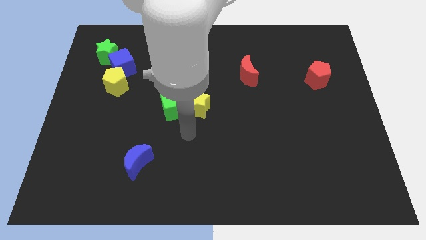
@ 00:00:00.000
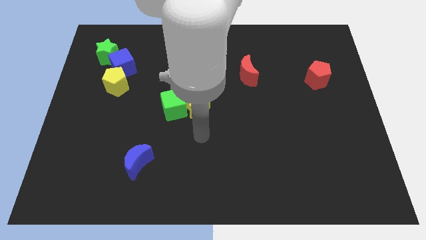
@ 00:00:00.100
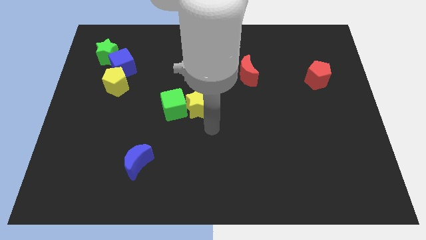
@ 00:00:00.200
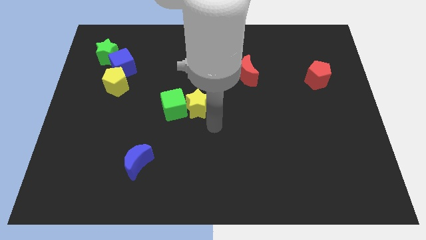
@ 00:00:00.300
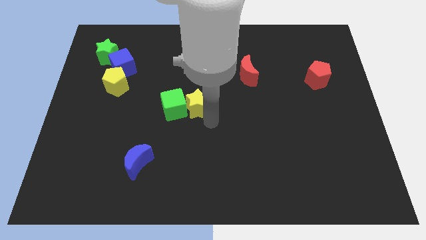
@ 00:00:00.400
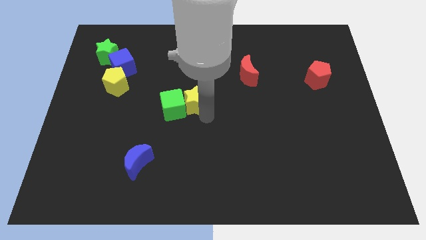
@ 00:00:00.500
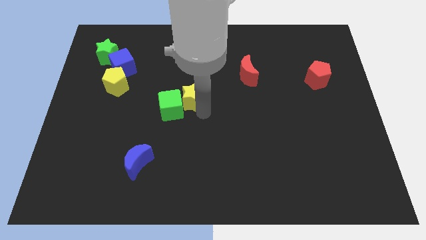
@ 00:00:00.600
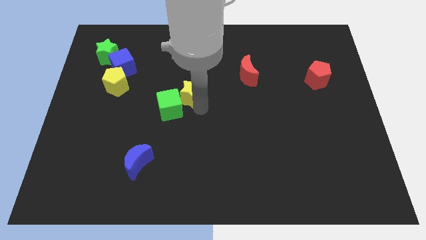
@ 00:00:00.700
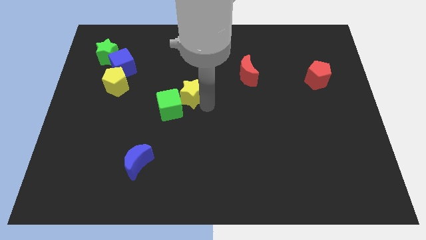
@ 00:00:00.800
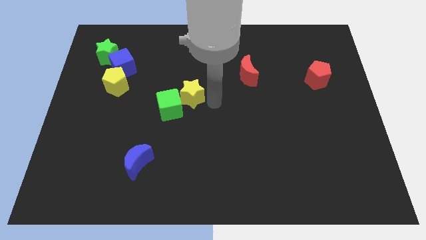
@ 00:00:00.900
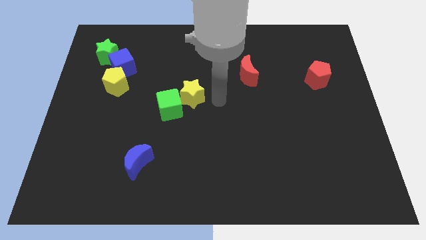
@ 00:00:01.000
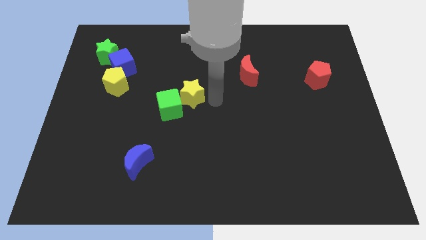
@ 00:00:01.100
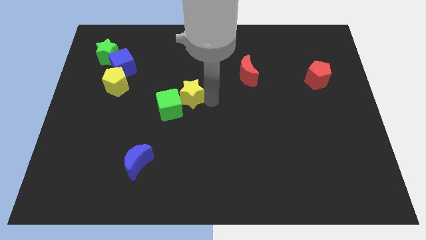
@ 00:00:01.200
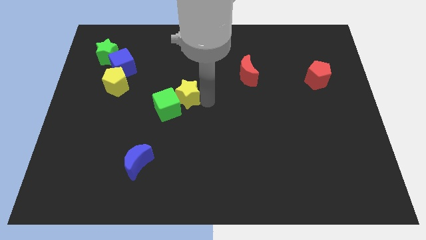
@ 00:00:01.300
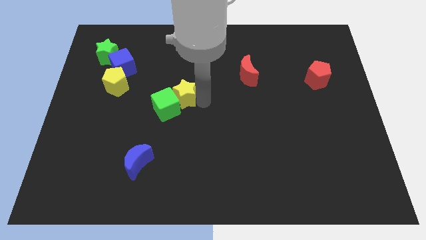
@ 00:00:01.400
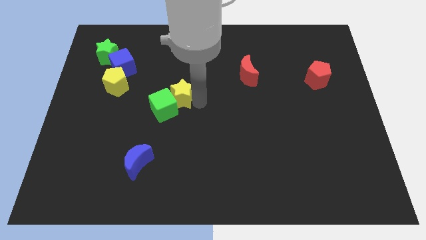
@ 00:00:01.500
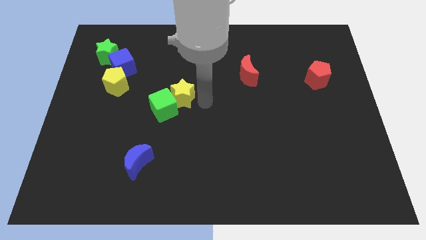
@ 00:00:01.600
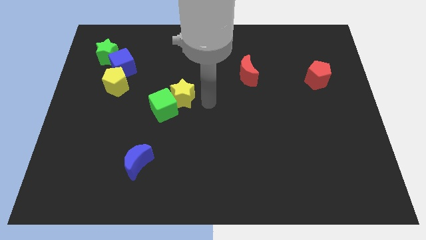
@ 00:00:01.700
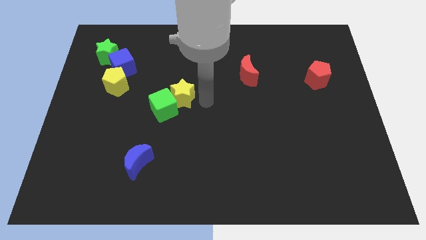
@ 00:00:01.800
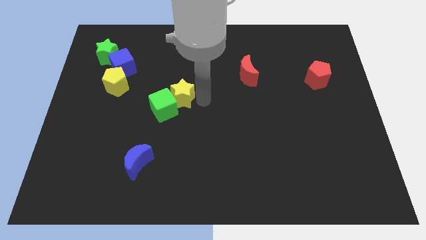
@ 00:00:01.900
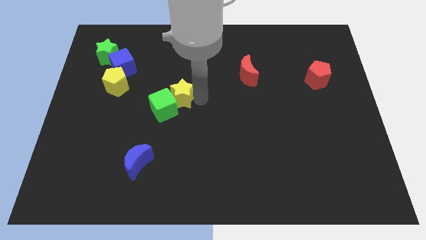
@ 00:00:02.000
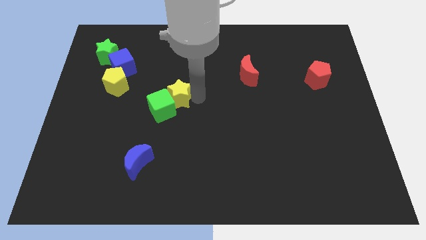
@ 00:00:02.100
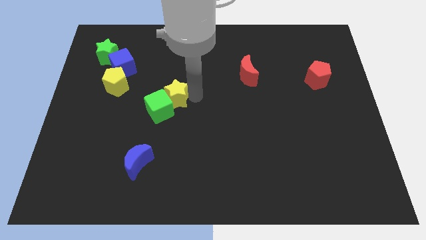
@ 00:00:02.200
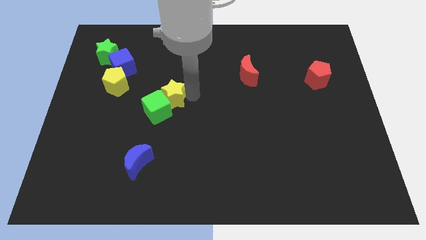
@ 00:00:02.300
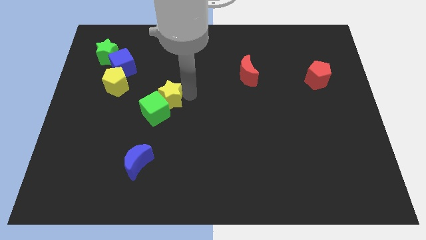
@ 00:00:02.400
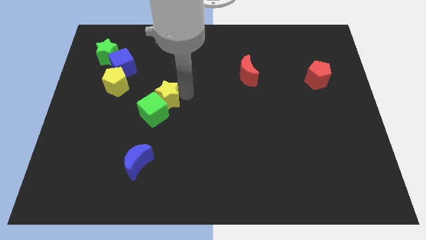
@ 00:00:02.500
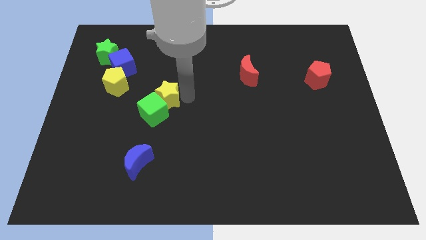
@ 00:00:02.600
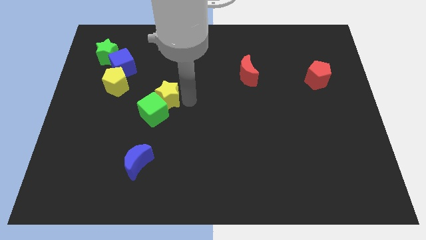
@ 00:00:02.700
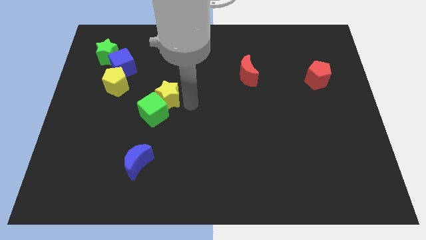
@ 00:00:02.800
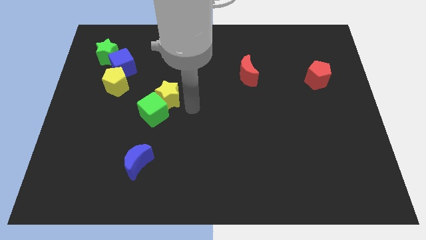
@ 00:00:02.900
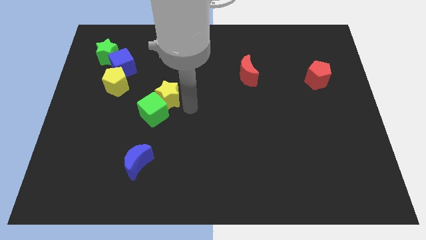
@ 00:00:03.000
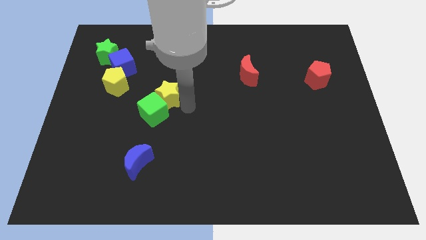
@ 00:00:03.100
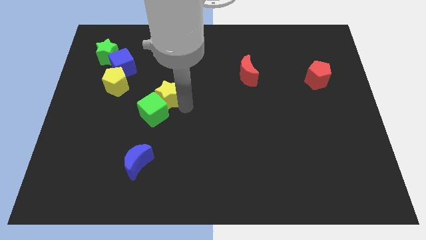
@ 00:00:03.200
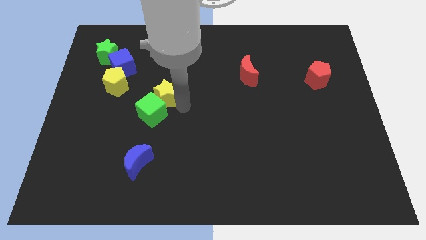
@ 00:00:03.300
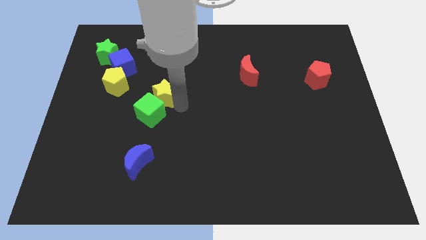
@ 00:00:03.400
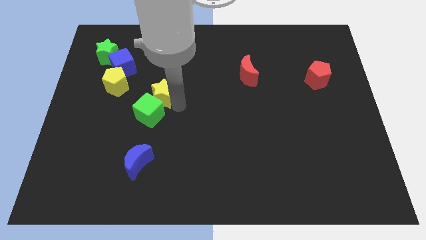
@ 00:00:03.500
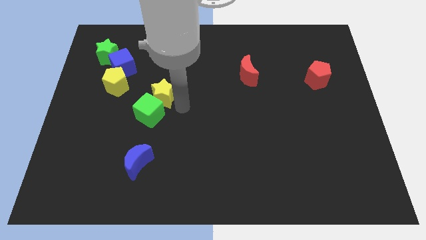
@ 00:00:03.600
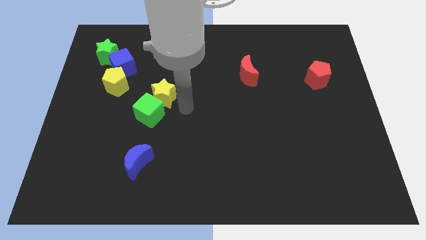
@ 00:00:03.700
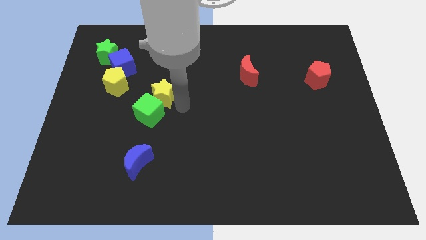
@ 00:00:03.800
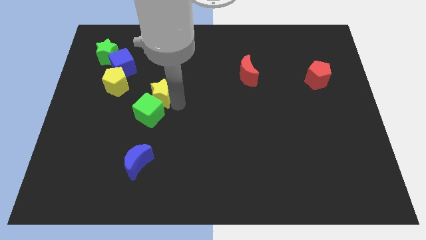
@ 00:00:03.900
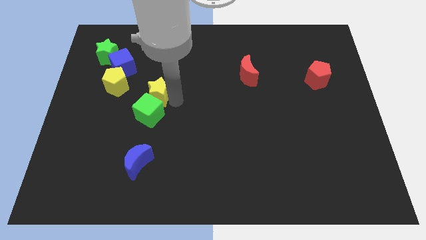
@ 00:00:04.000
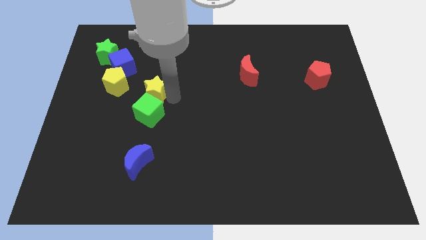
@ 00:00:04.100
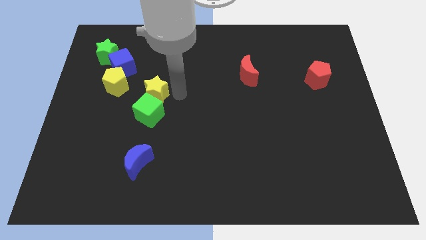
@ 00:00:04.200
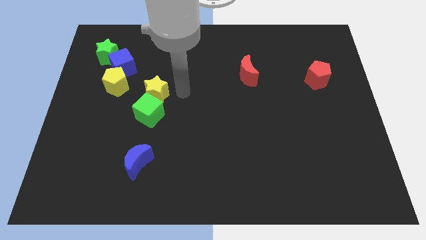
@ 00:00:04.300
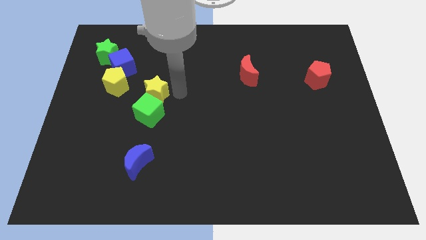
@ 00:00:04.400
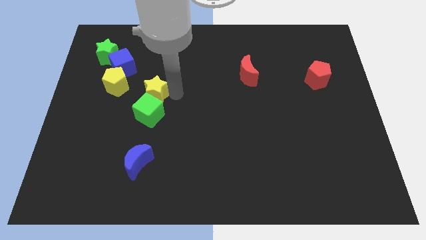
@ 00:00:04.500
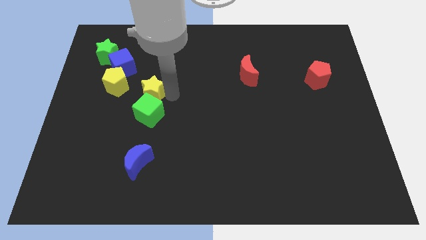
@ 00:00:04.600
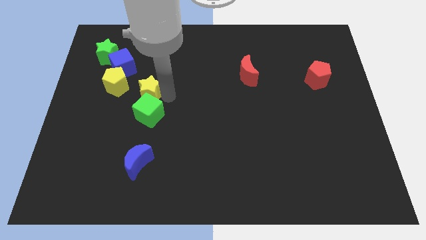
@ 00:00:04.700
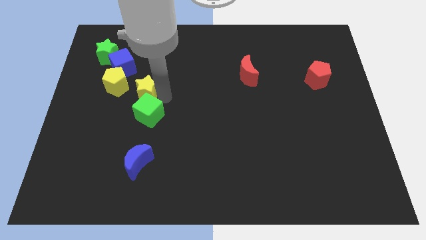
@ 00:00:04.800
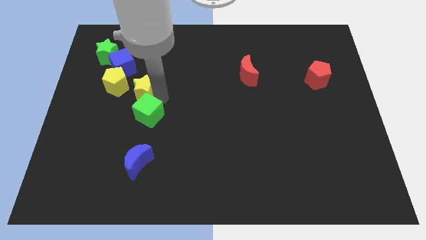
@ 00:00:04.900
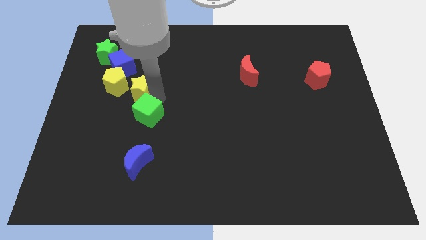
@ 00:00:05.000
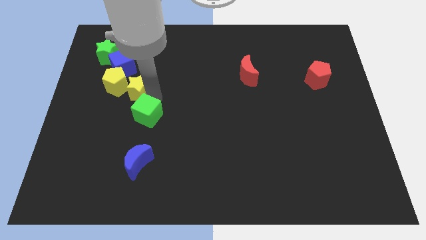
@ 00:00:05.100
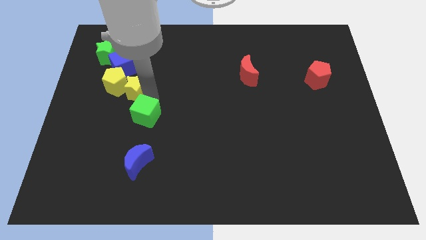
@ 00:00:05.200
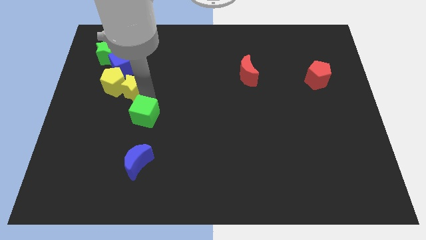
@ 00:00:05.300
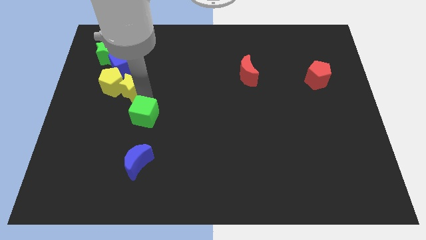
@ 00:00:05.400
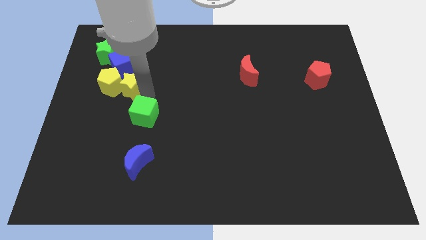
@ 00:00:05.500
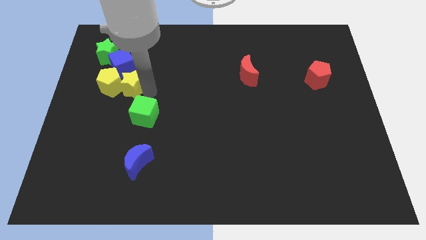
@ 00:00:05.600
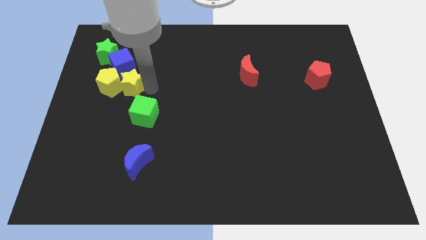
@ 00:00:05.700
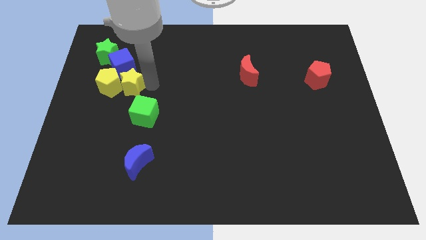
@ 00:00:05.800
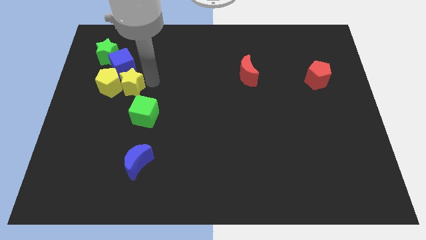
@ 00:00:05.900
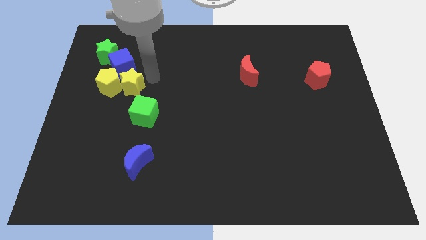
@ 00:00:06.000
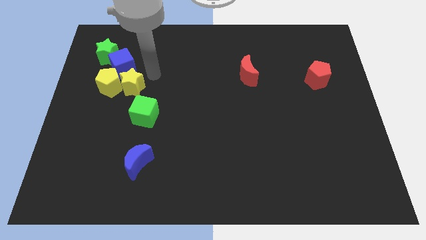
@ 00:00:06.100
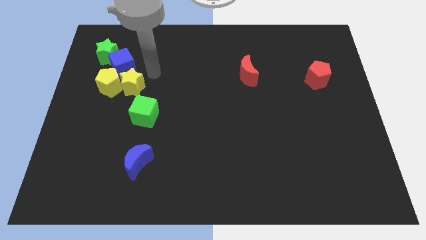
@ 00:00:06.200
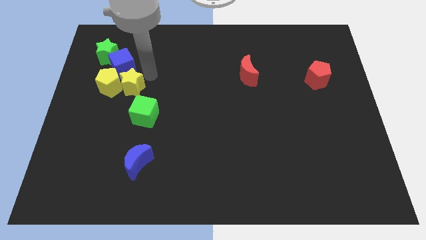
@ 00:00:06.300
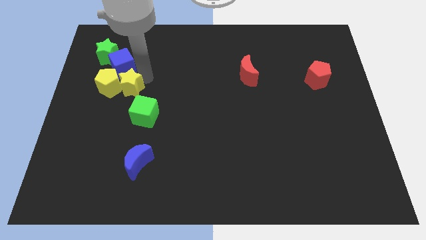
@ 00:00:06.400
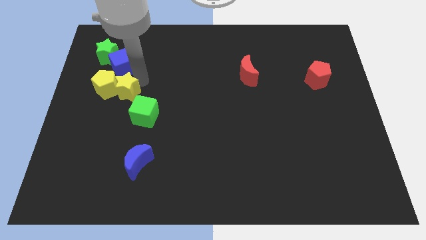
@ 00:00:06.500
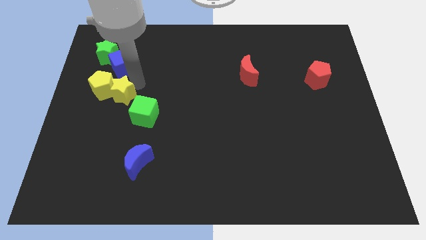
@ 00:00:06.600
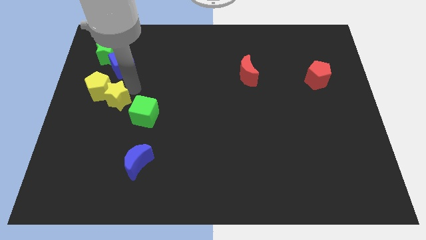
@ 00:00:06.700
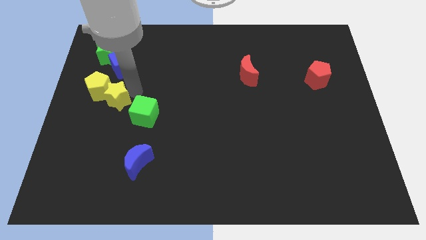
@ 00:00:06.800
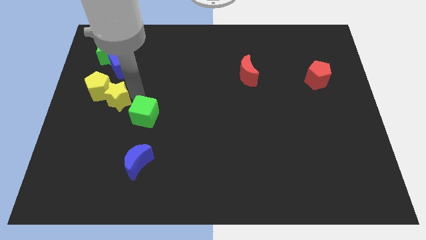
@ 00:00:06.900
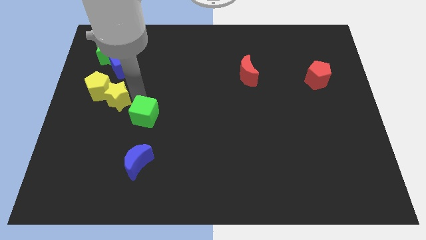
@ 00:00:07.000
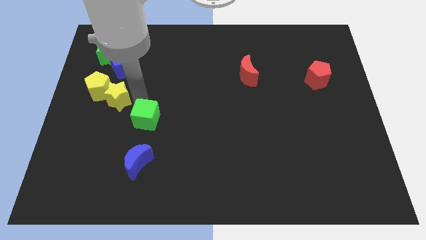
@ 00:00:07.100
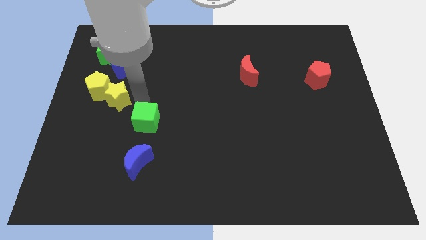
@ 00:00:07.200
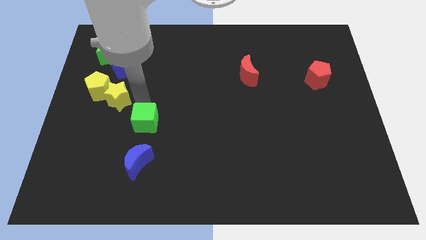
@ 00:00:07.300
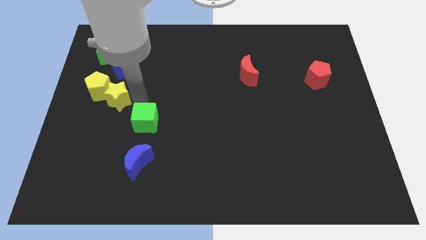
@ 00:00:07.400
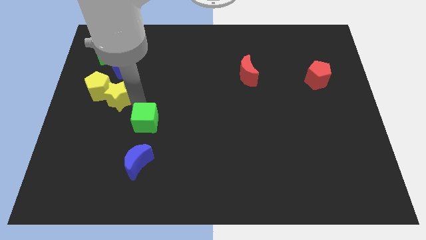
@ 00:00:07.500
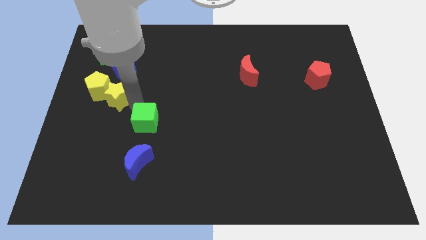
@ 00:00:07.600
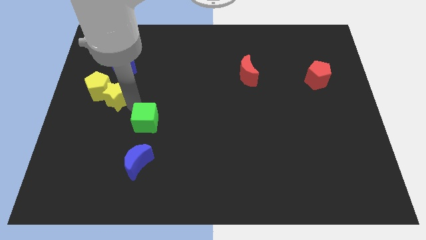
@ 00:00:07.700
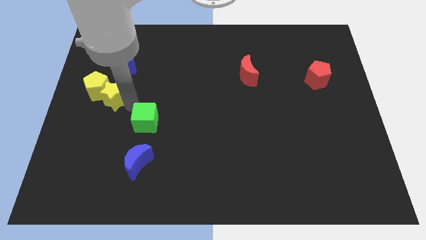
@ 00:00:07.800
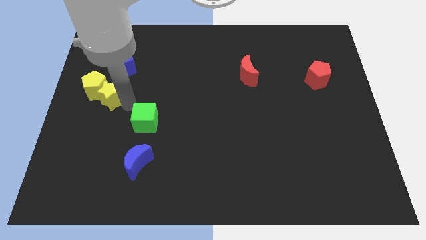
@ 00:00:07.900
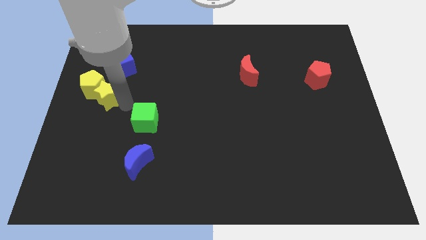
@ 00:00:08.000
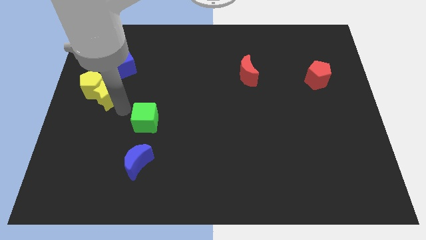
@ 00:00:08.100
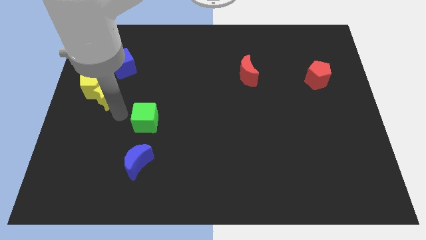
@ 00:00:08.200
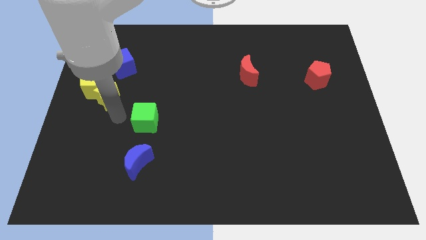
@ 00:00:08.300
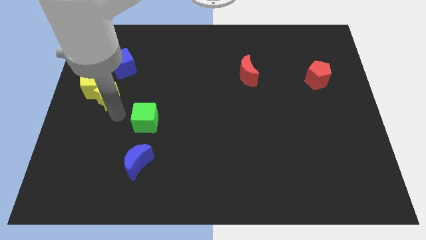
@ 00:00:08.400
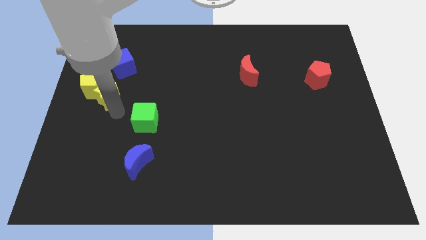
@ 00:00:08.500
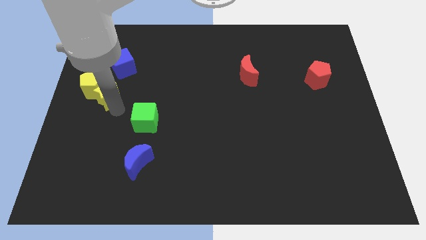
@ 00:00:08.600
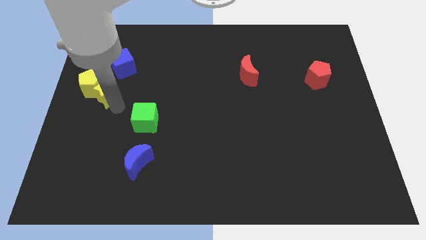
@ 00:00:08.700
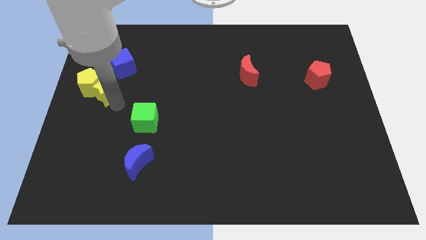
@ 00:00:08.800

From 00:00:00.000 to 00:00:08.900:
push the yellow star to the bottom left side of the blue cube
